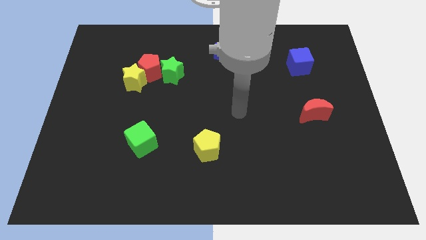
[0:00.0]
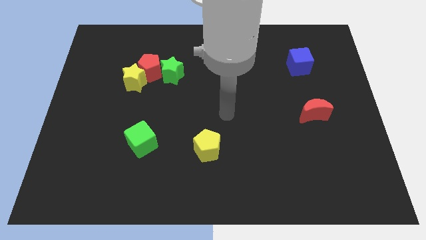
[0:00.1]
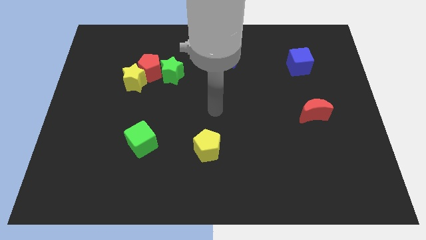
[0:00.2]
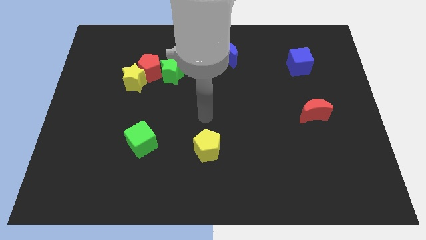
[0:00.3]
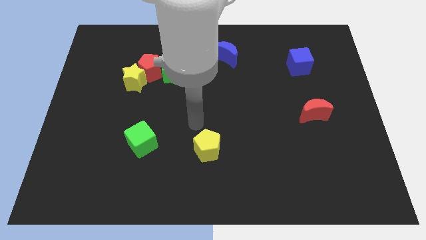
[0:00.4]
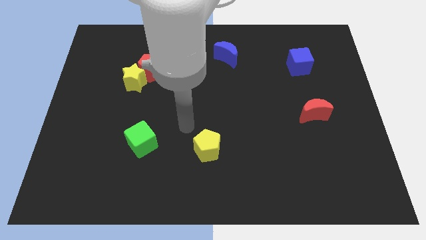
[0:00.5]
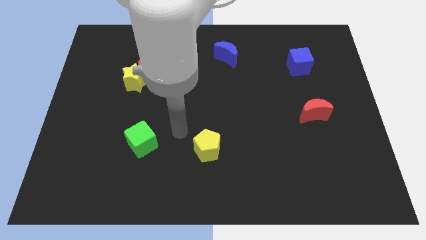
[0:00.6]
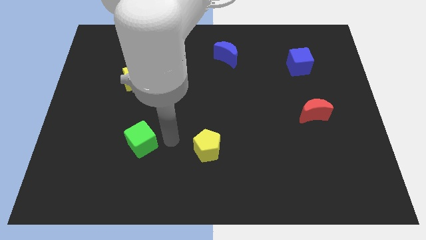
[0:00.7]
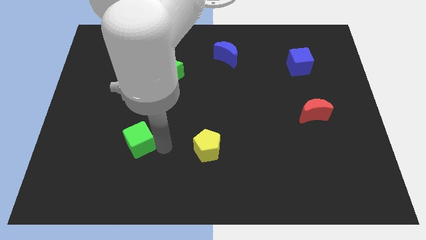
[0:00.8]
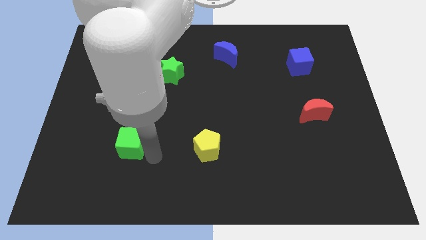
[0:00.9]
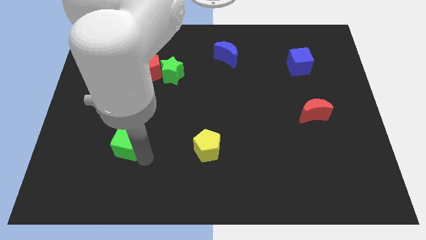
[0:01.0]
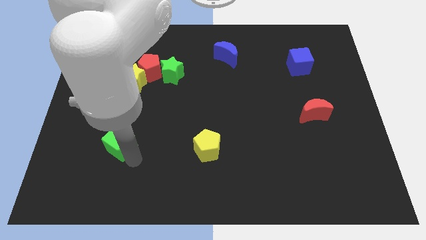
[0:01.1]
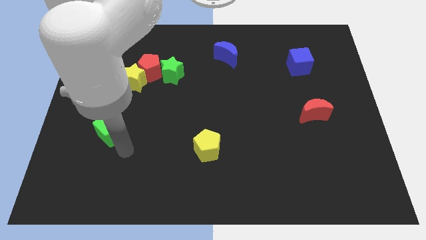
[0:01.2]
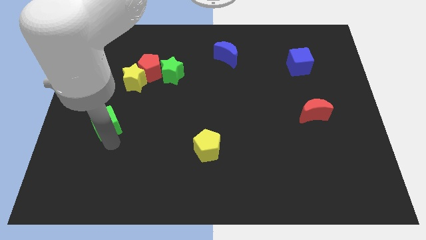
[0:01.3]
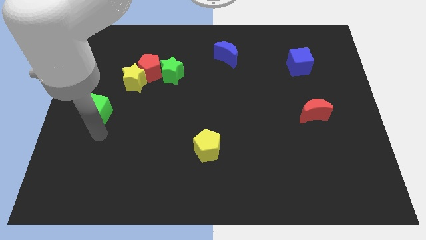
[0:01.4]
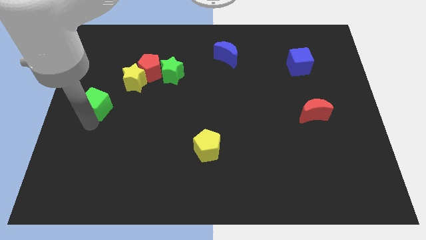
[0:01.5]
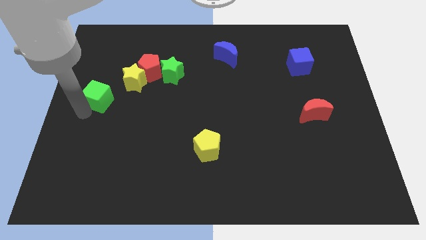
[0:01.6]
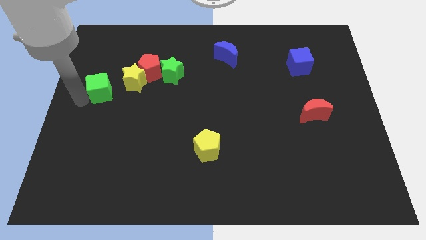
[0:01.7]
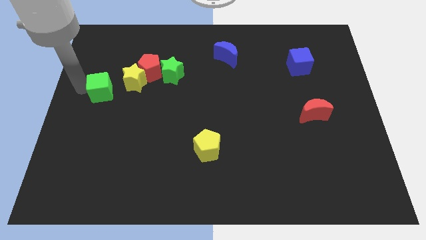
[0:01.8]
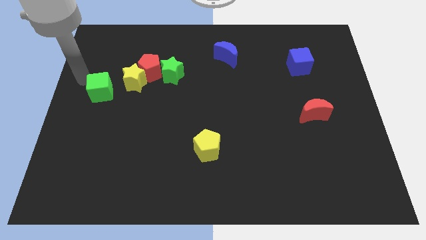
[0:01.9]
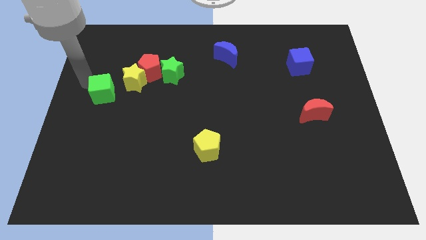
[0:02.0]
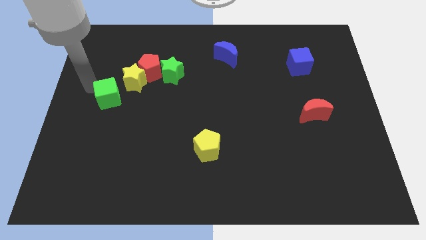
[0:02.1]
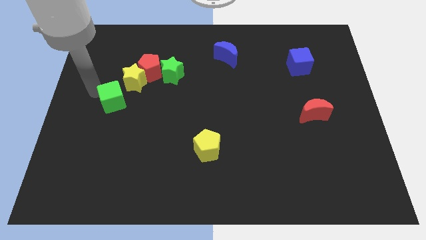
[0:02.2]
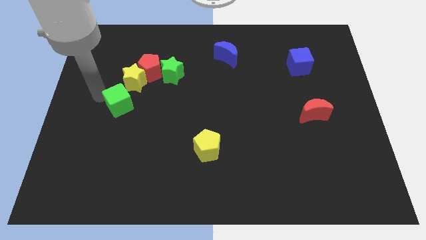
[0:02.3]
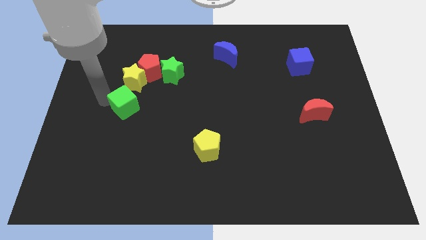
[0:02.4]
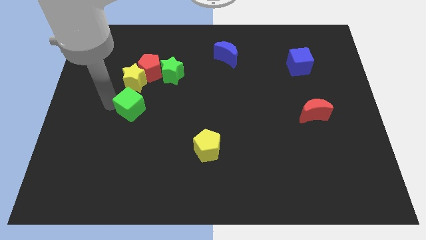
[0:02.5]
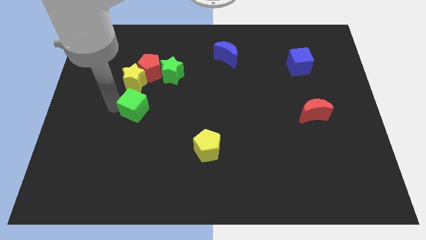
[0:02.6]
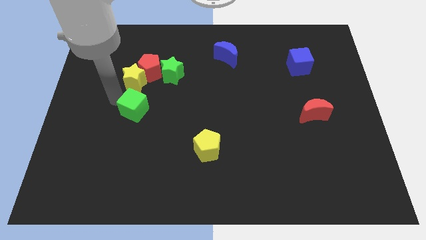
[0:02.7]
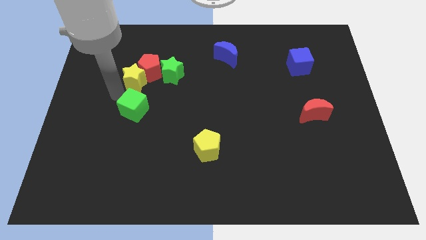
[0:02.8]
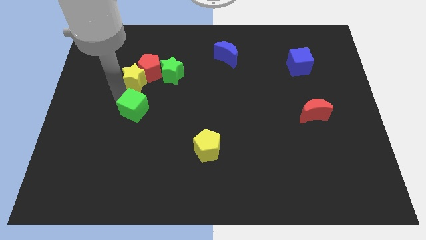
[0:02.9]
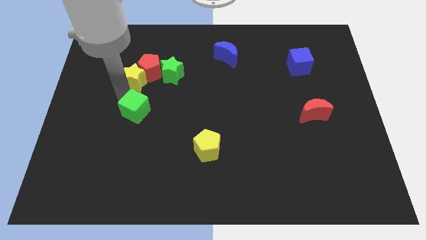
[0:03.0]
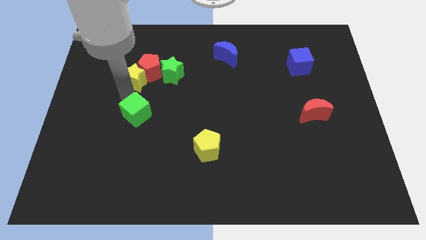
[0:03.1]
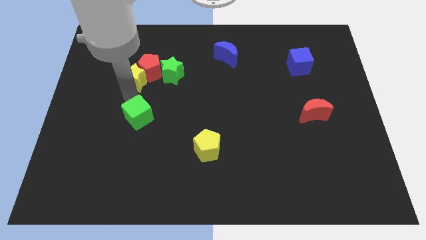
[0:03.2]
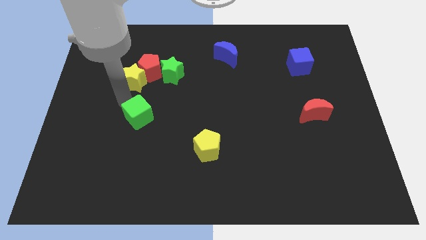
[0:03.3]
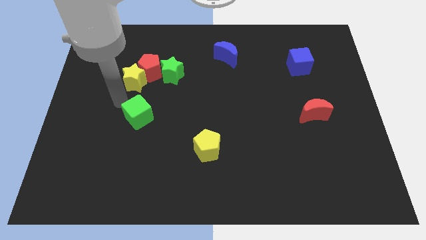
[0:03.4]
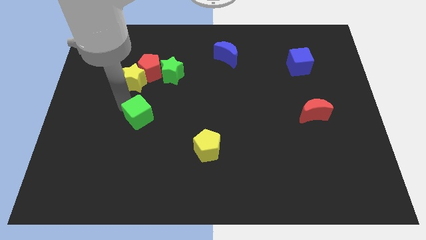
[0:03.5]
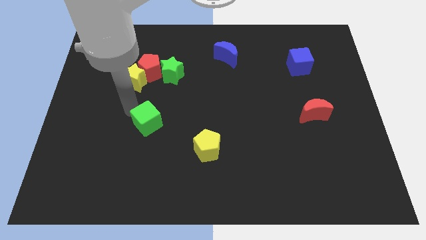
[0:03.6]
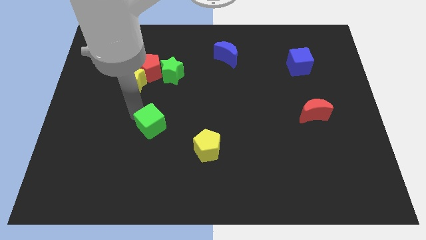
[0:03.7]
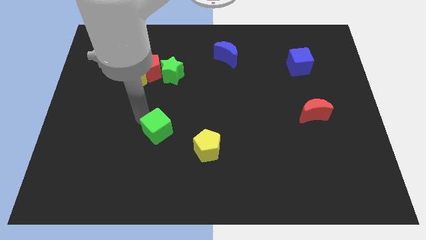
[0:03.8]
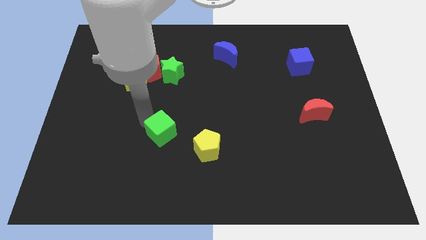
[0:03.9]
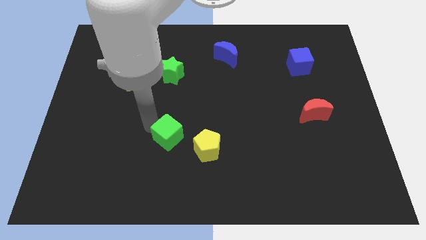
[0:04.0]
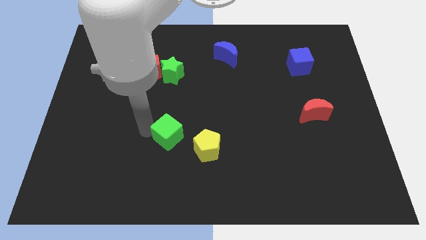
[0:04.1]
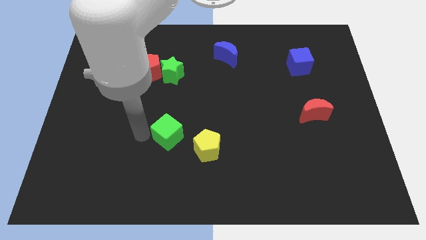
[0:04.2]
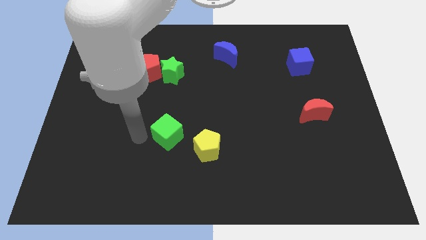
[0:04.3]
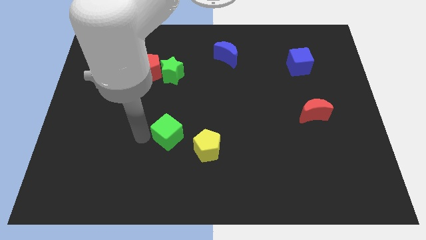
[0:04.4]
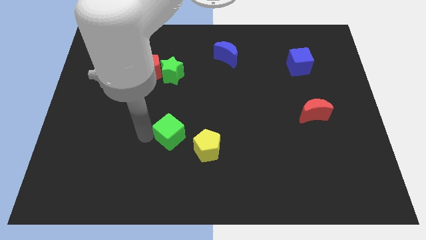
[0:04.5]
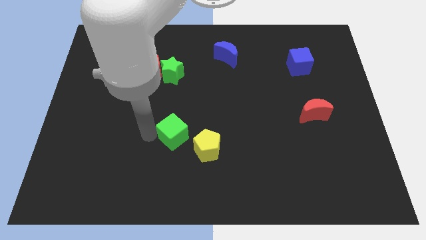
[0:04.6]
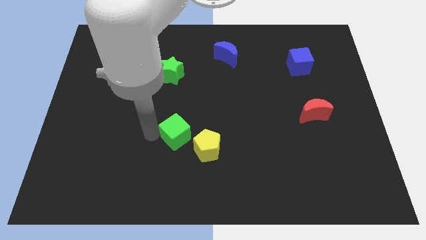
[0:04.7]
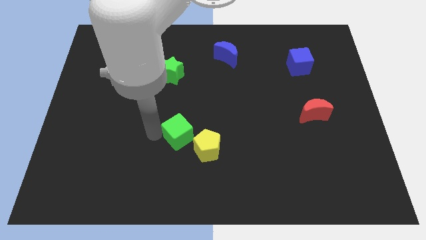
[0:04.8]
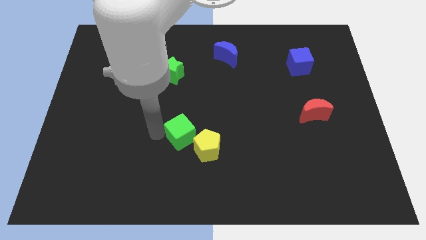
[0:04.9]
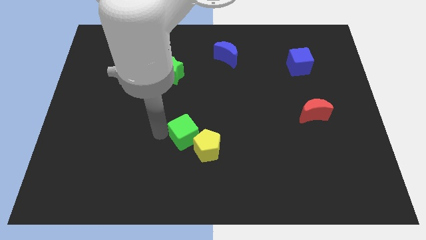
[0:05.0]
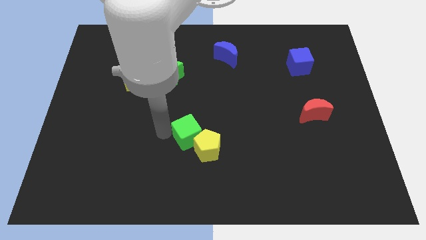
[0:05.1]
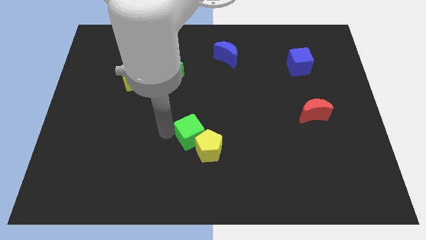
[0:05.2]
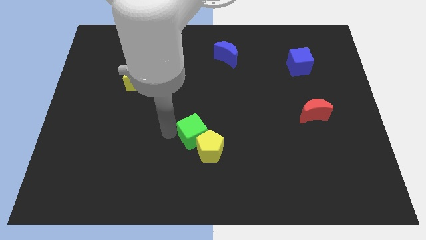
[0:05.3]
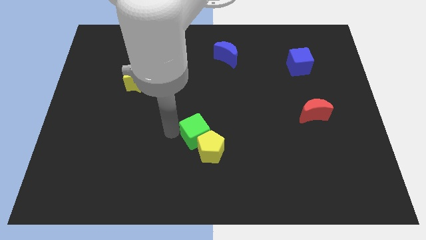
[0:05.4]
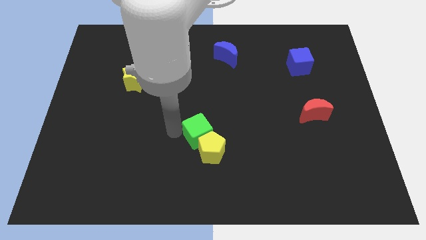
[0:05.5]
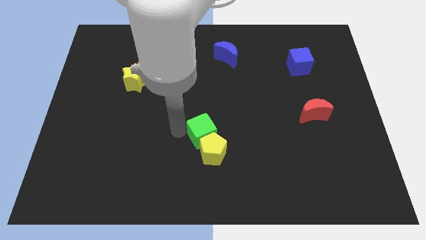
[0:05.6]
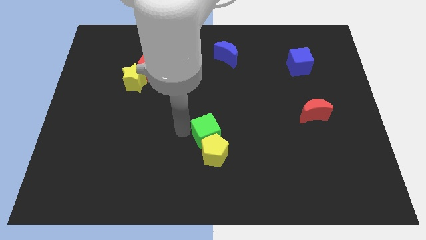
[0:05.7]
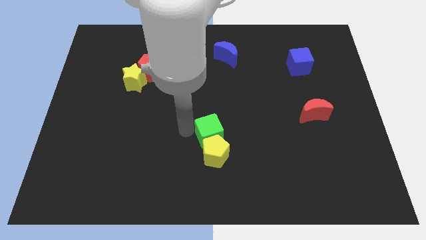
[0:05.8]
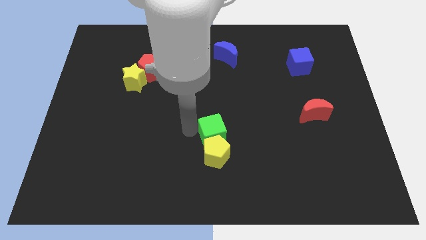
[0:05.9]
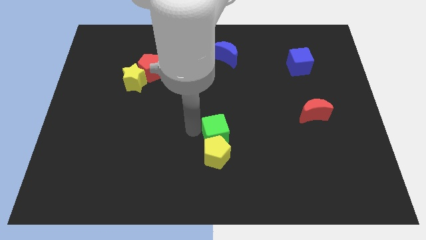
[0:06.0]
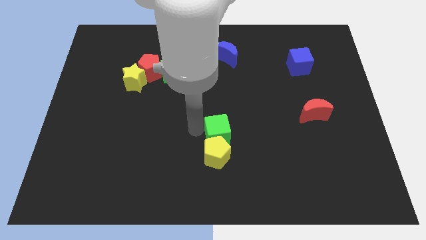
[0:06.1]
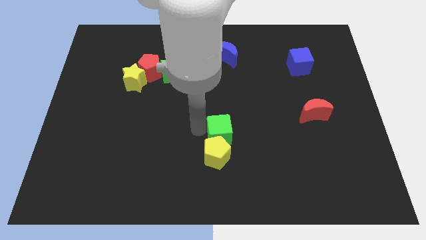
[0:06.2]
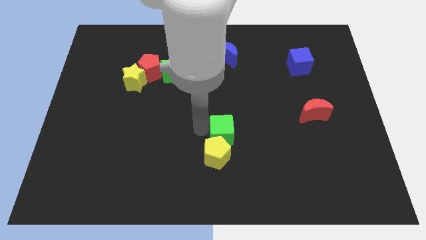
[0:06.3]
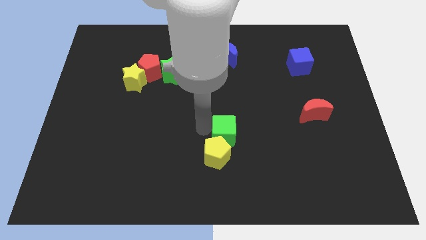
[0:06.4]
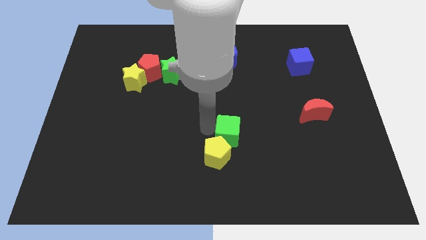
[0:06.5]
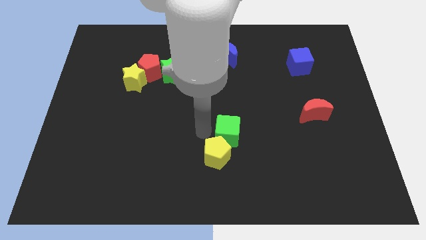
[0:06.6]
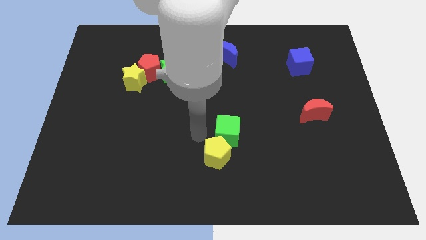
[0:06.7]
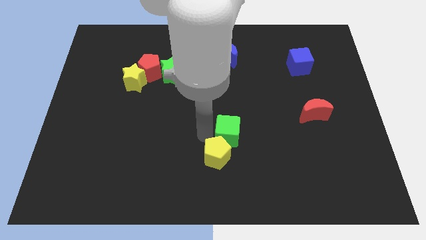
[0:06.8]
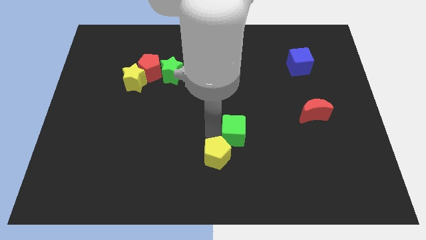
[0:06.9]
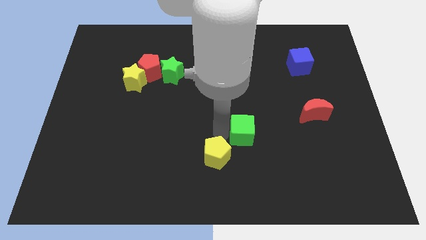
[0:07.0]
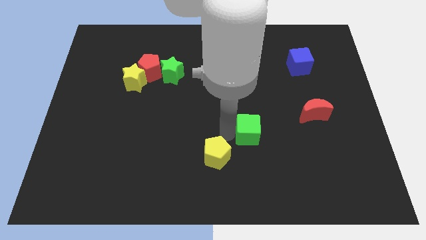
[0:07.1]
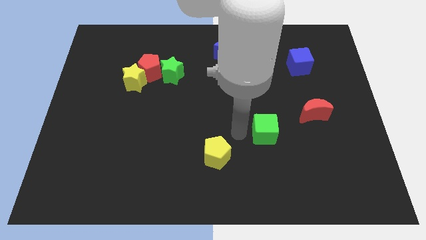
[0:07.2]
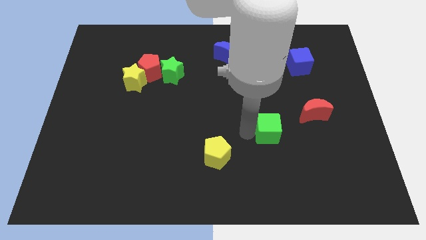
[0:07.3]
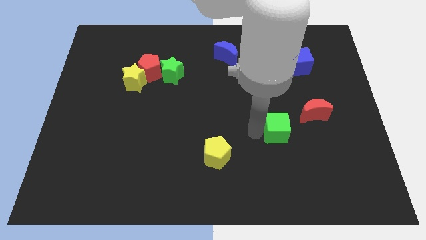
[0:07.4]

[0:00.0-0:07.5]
move the green cube to the bottom left of the red moon

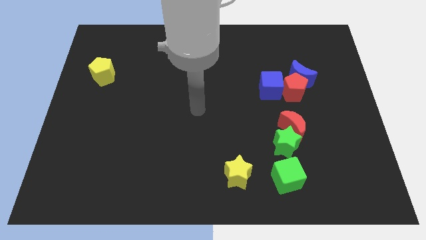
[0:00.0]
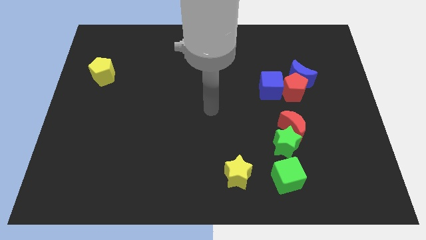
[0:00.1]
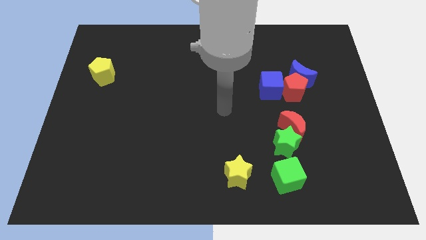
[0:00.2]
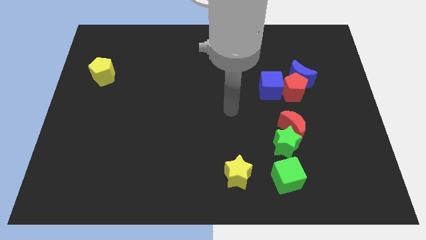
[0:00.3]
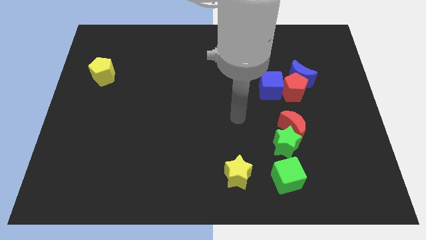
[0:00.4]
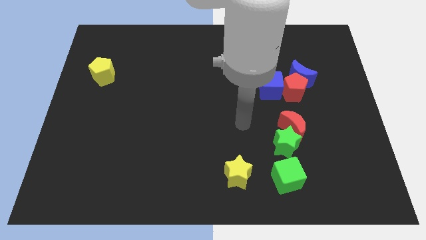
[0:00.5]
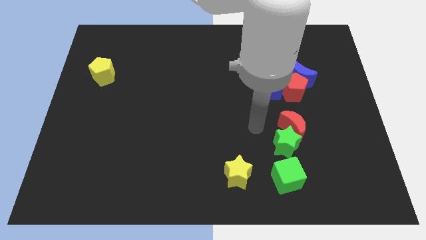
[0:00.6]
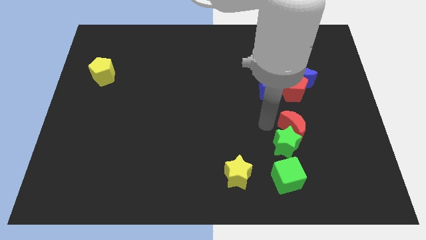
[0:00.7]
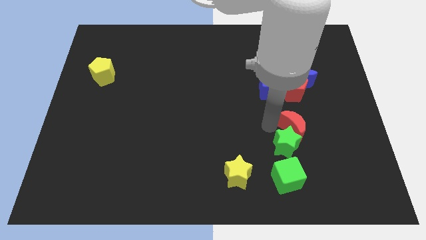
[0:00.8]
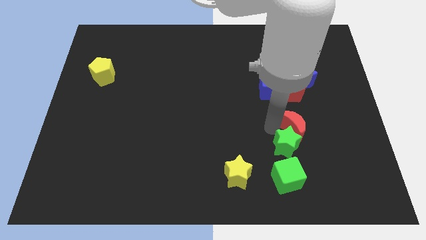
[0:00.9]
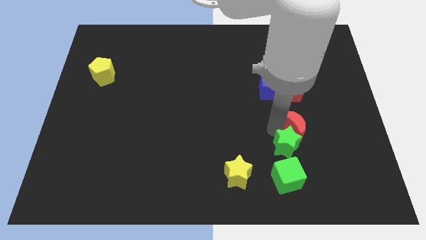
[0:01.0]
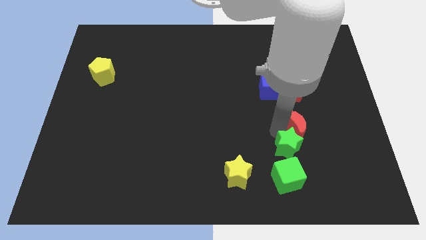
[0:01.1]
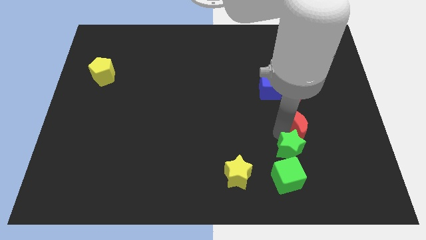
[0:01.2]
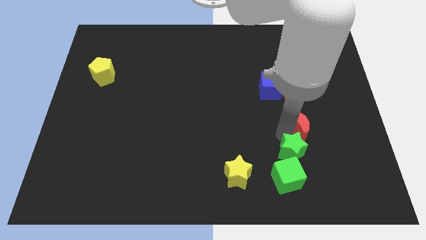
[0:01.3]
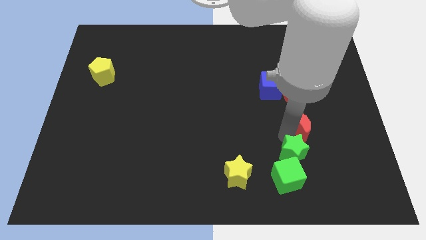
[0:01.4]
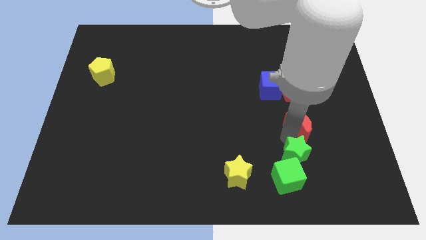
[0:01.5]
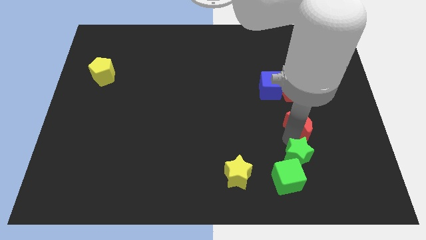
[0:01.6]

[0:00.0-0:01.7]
push the green star right of the yellow star
